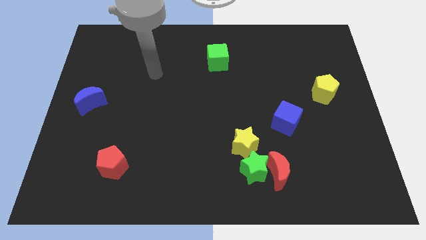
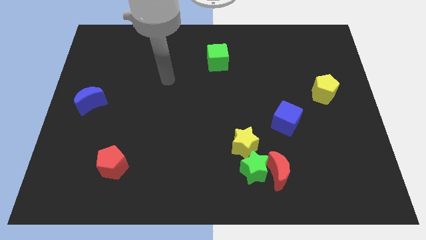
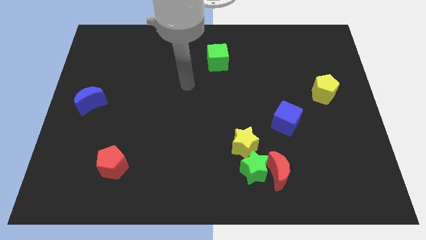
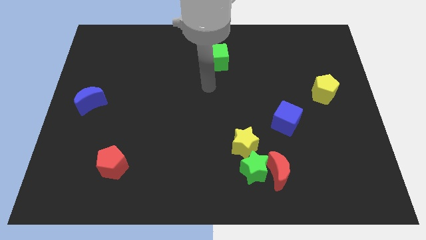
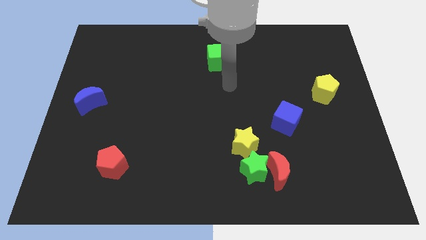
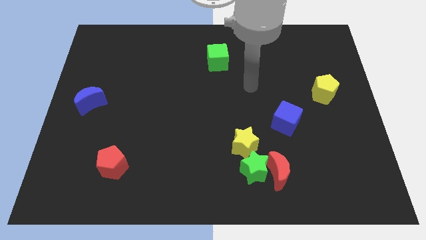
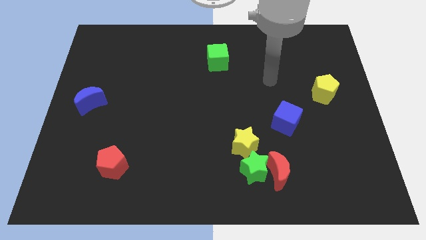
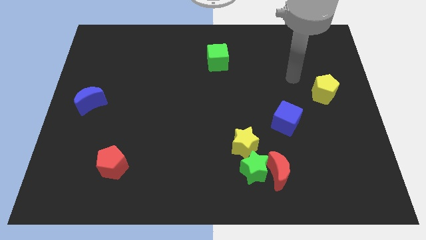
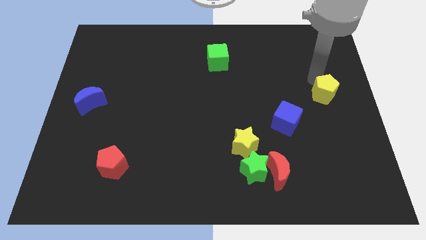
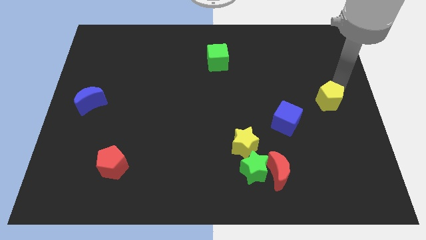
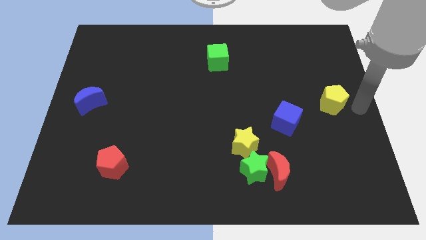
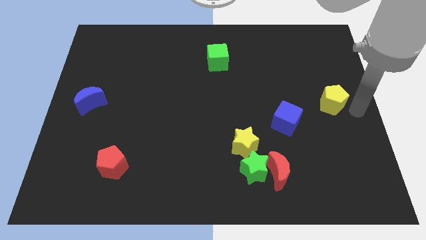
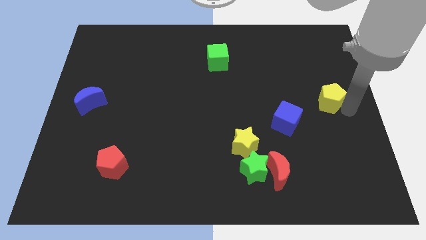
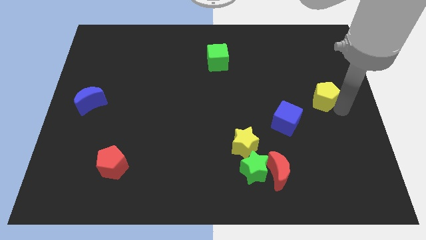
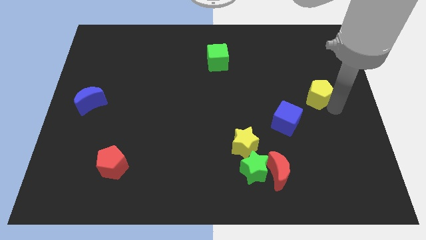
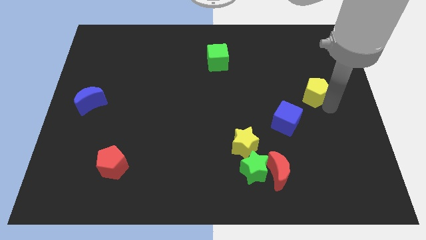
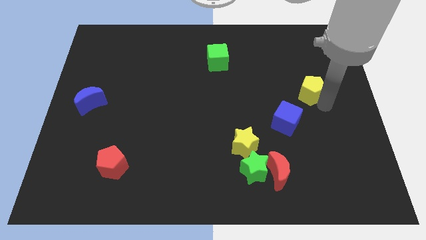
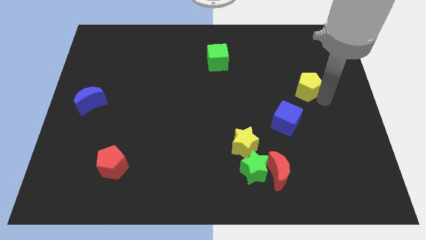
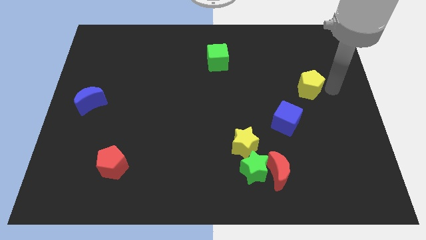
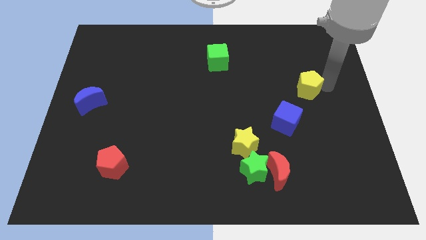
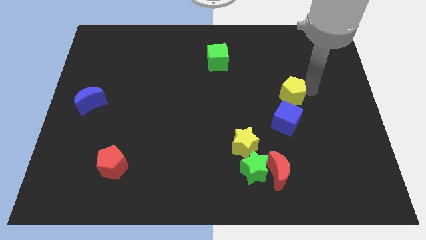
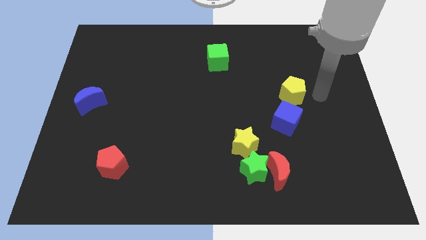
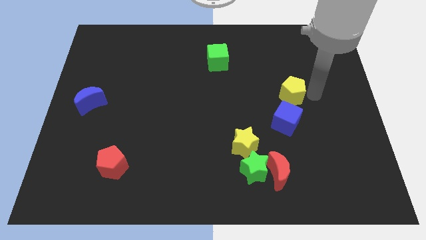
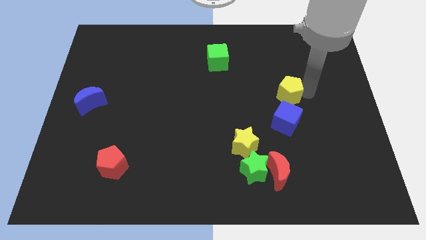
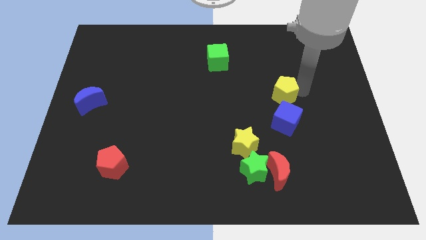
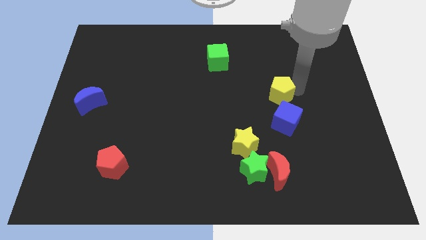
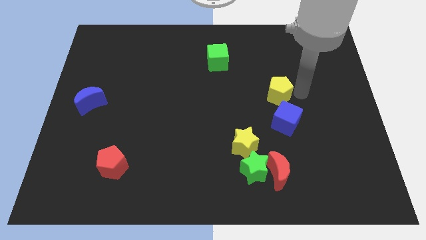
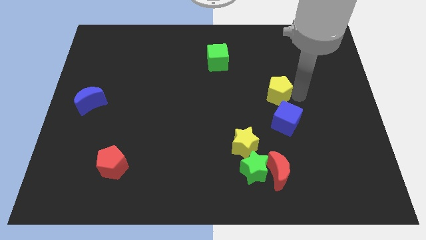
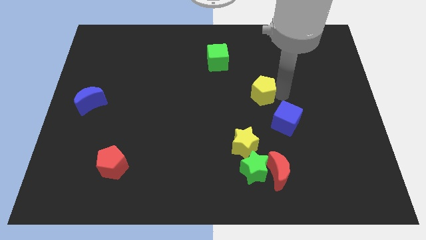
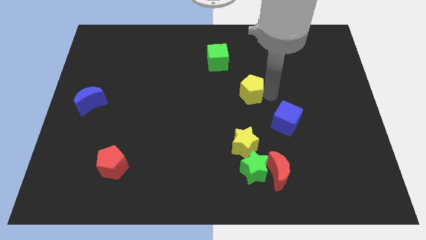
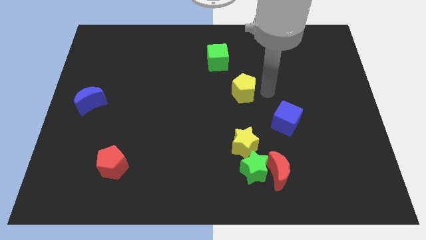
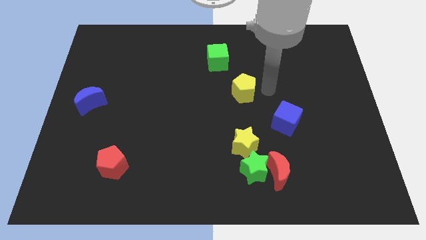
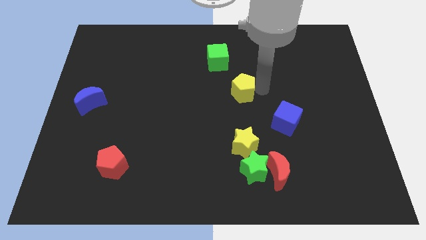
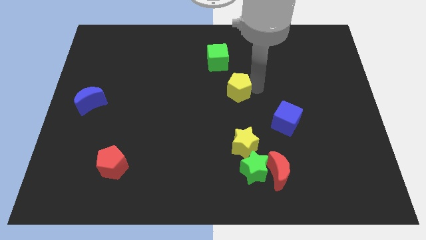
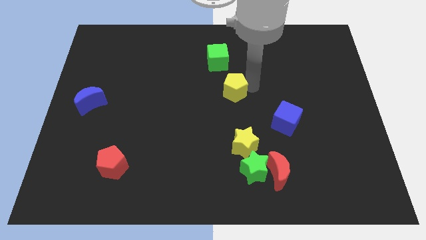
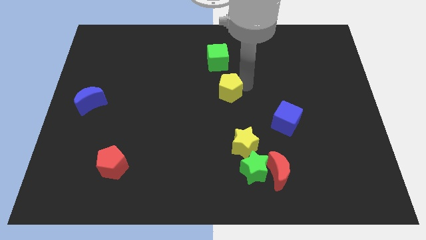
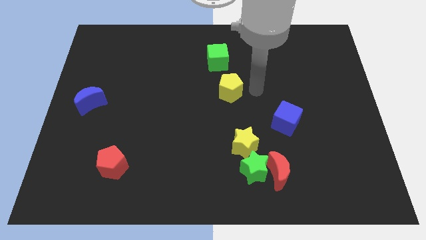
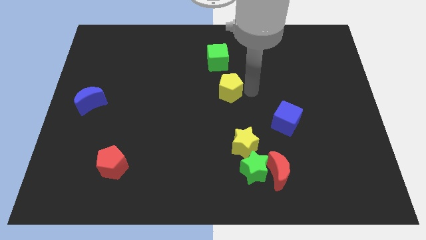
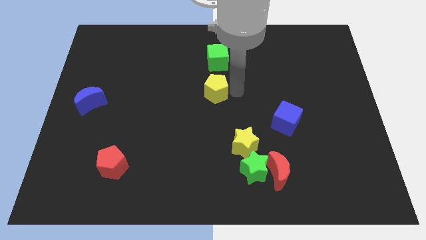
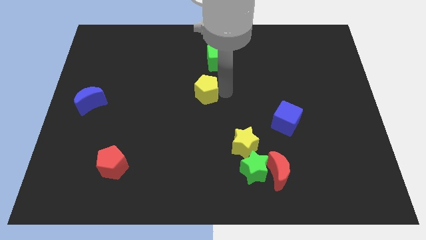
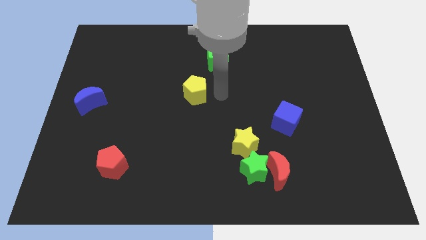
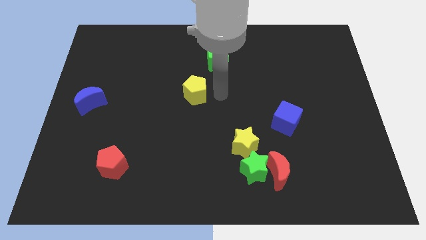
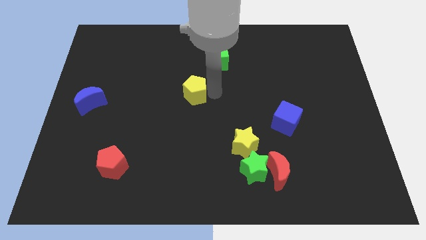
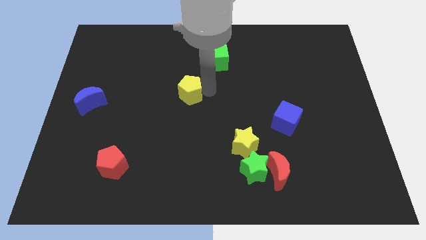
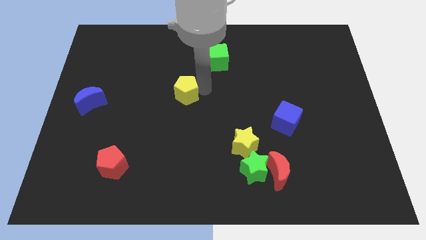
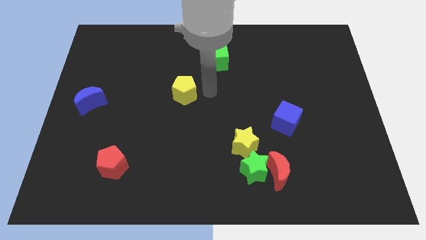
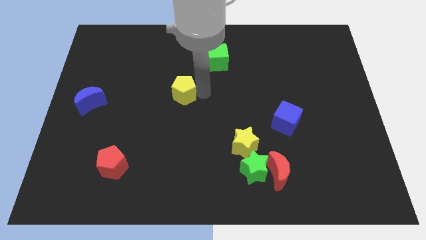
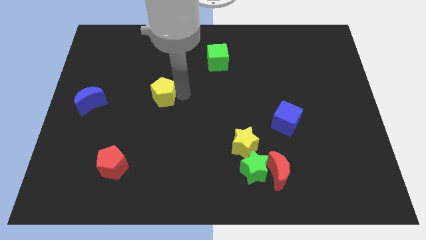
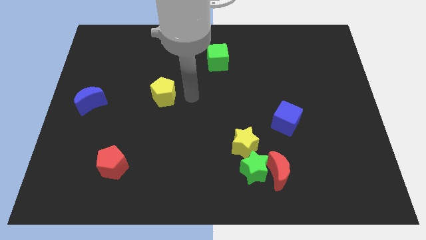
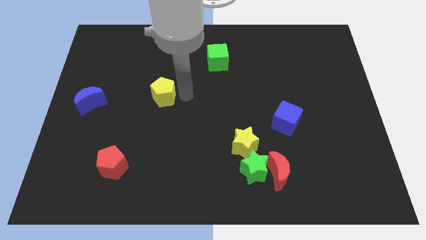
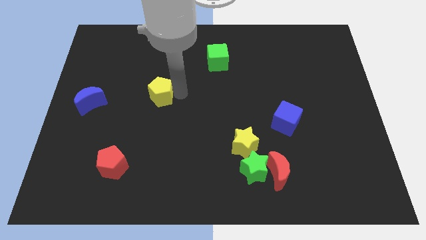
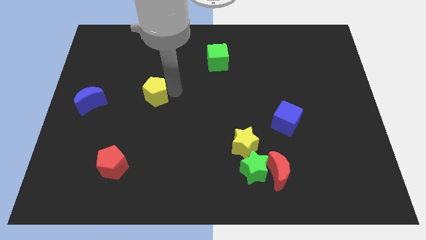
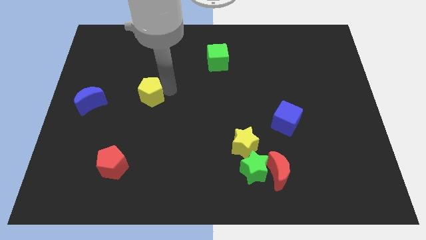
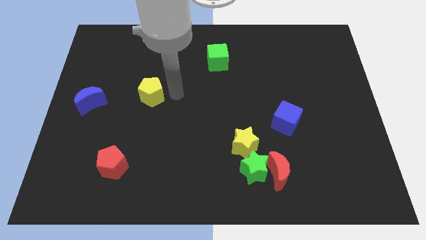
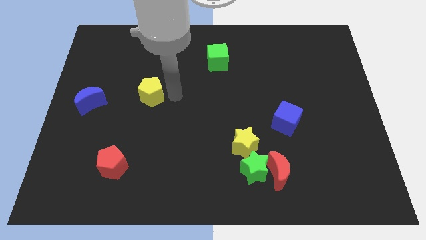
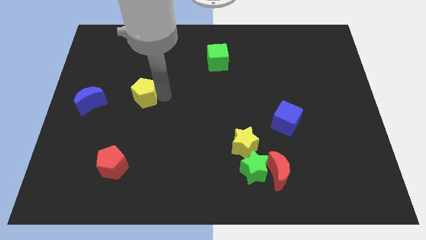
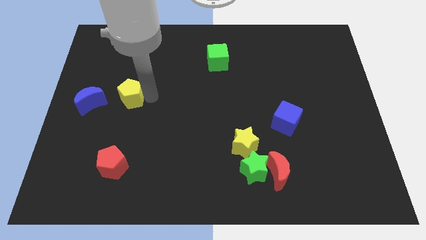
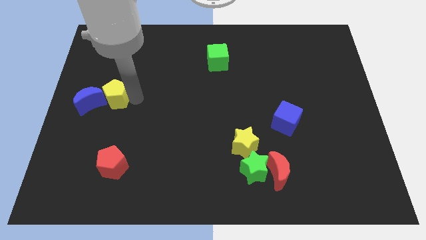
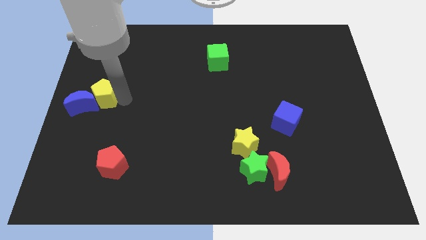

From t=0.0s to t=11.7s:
put the yellow pentagon to the left side
